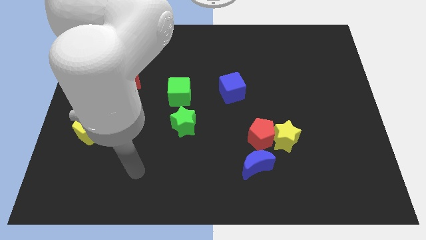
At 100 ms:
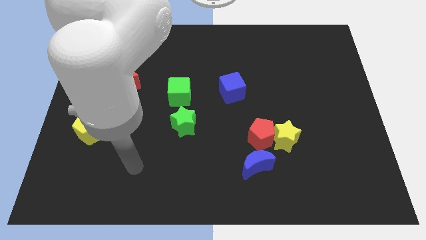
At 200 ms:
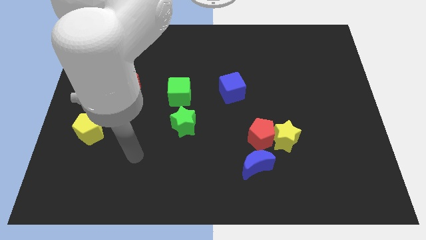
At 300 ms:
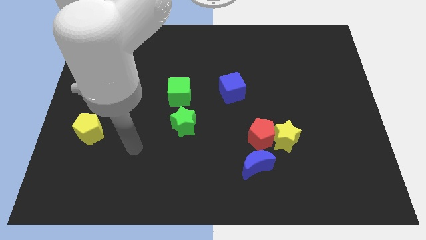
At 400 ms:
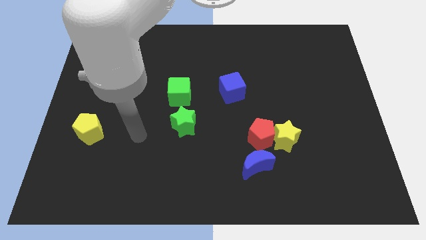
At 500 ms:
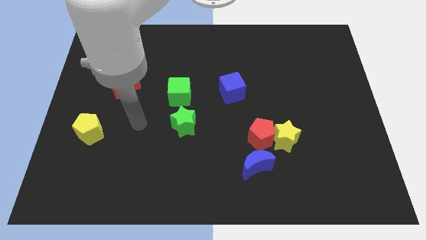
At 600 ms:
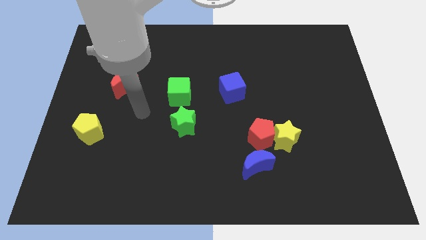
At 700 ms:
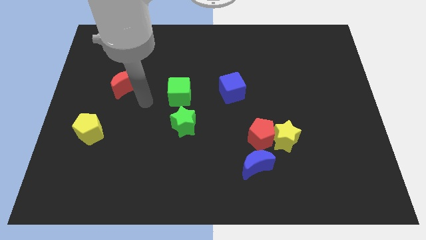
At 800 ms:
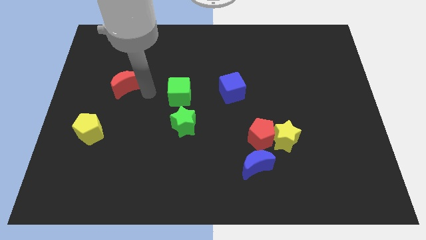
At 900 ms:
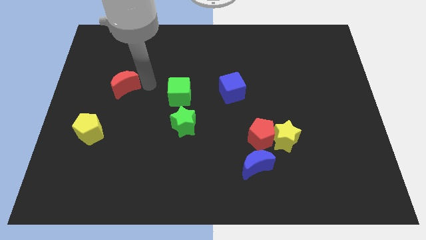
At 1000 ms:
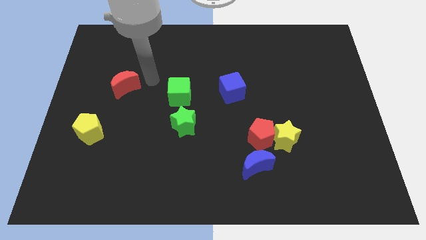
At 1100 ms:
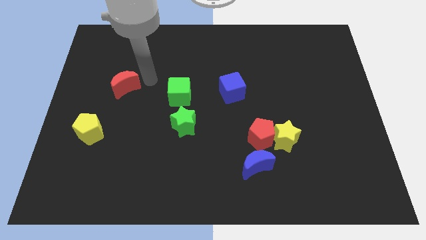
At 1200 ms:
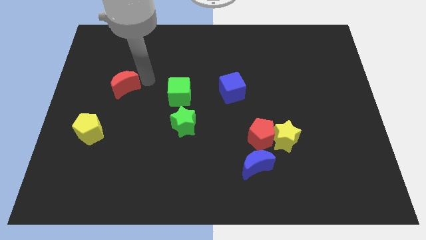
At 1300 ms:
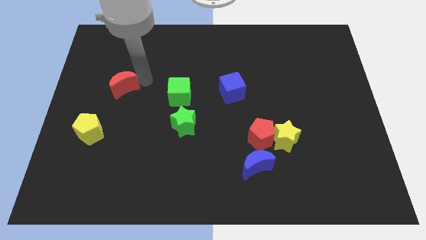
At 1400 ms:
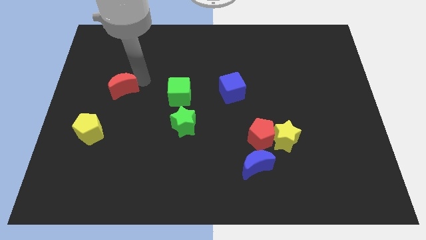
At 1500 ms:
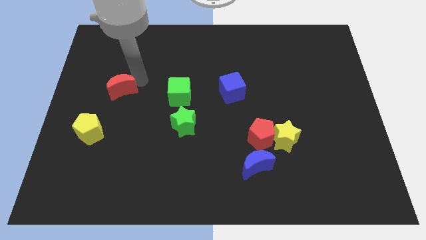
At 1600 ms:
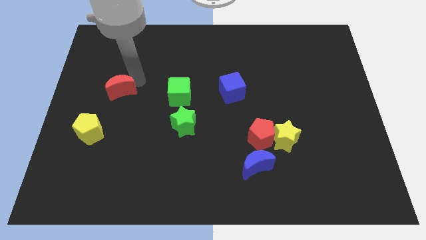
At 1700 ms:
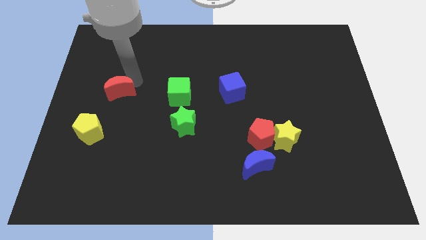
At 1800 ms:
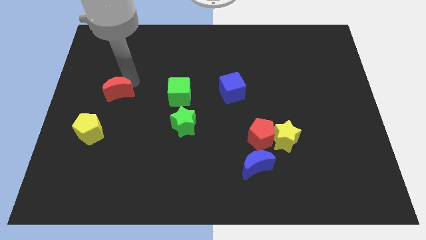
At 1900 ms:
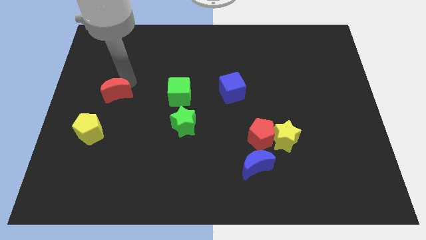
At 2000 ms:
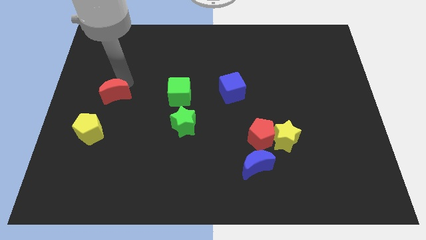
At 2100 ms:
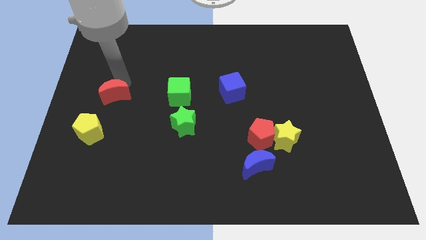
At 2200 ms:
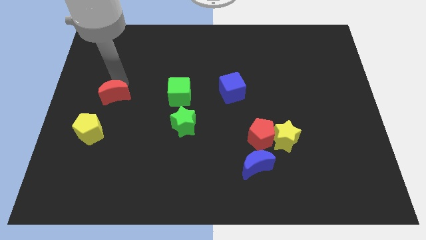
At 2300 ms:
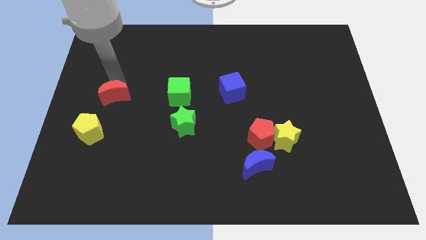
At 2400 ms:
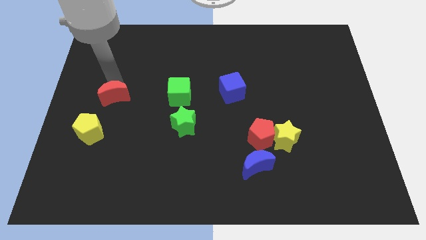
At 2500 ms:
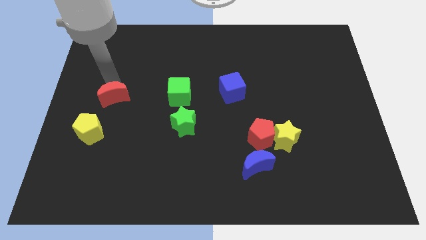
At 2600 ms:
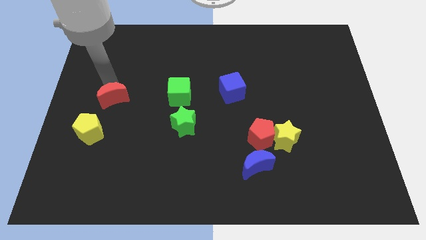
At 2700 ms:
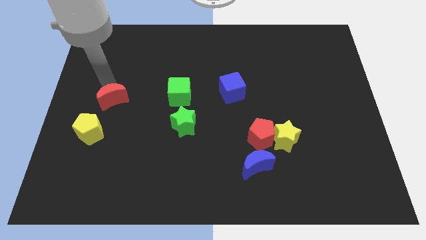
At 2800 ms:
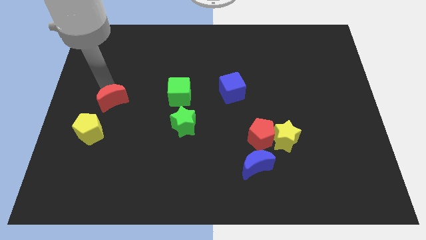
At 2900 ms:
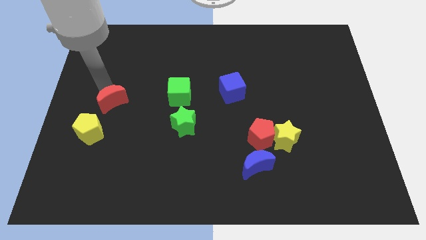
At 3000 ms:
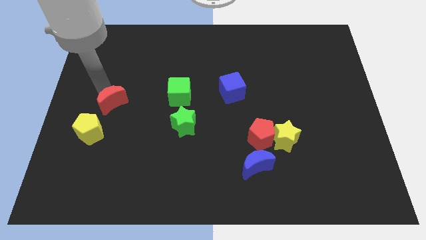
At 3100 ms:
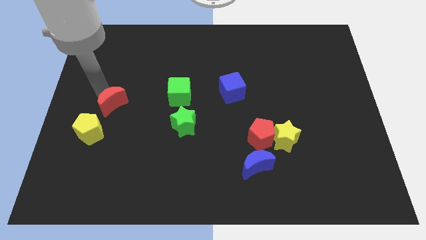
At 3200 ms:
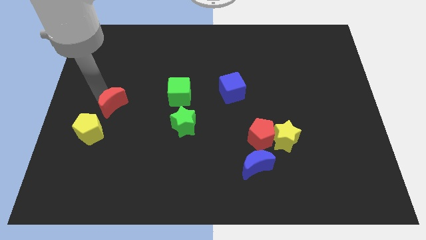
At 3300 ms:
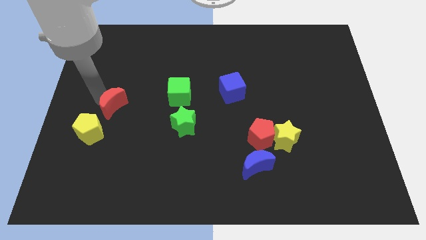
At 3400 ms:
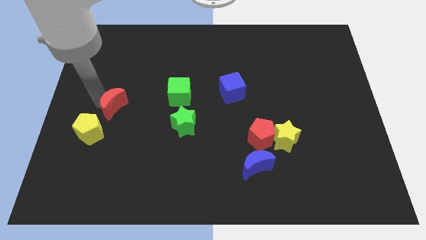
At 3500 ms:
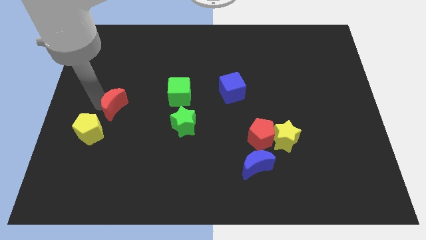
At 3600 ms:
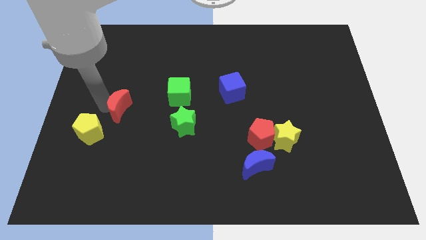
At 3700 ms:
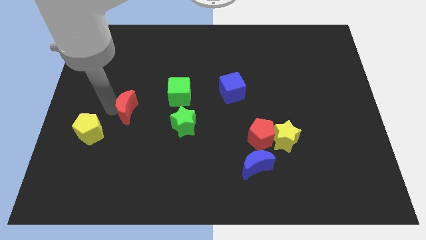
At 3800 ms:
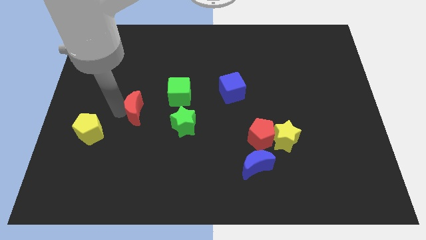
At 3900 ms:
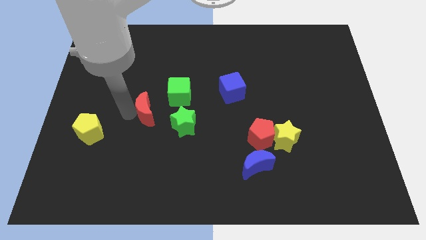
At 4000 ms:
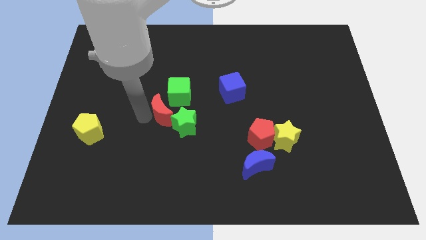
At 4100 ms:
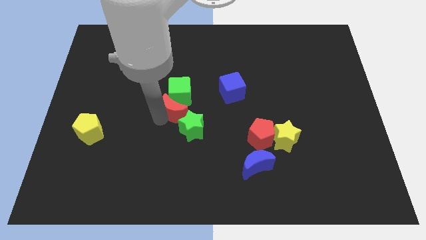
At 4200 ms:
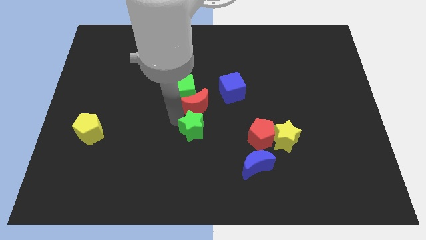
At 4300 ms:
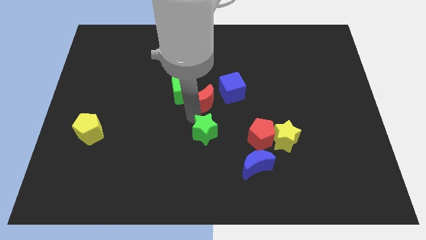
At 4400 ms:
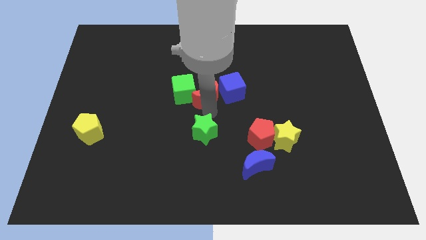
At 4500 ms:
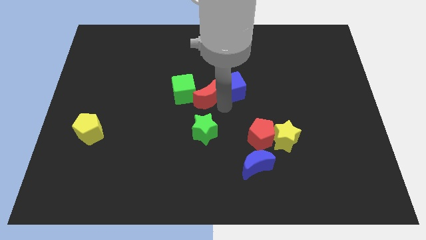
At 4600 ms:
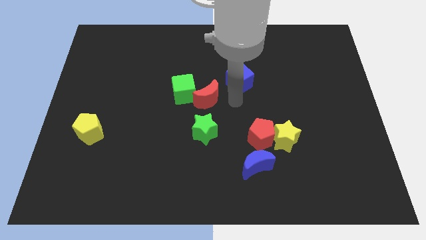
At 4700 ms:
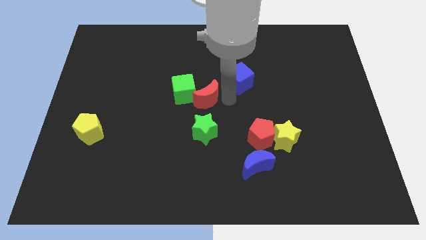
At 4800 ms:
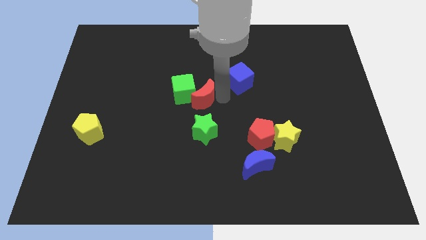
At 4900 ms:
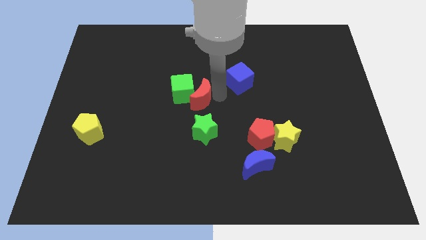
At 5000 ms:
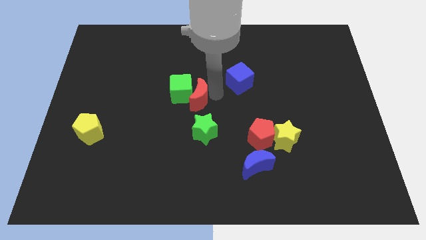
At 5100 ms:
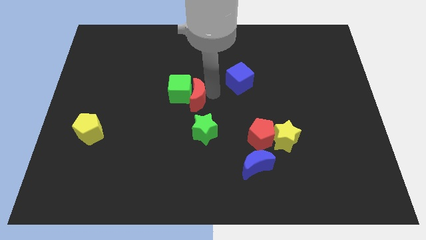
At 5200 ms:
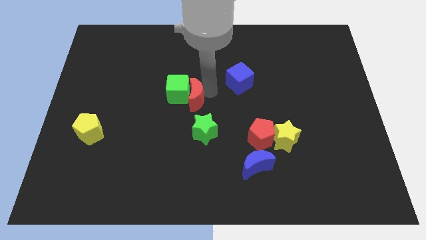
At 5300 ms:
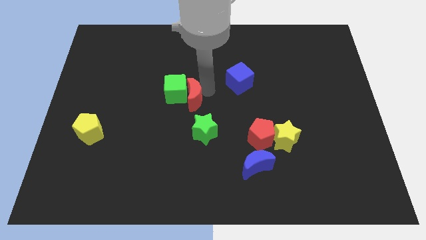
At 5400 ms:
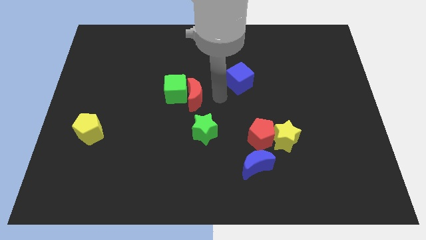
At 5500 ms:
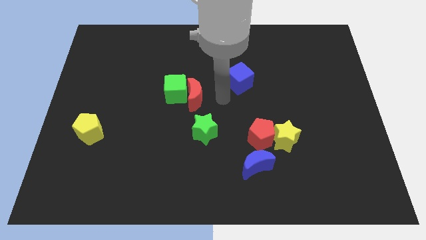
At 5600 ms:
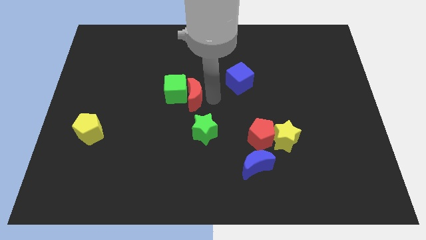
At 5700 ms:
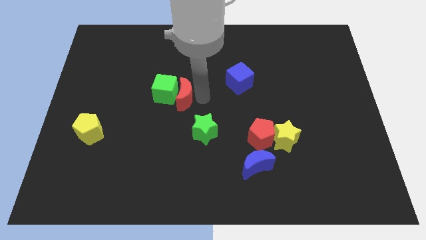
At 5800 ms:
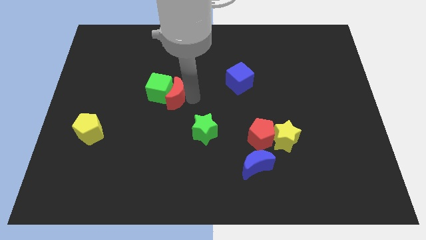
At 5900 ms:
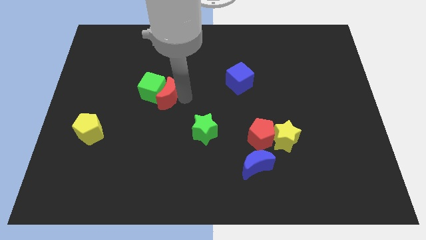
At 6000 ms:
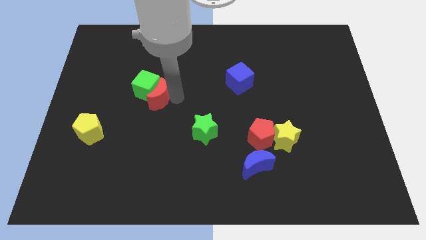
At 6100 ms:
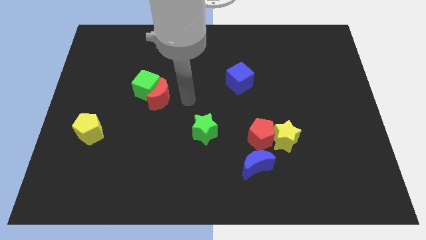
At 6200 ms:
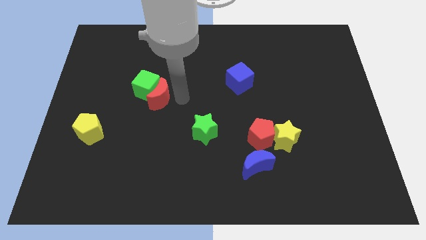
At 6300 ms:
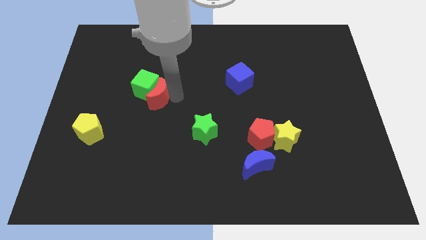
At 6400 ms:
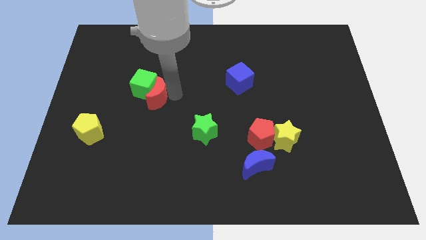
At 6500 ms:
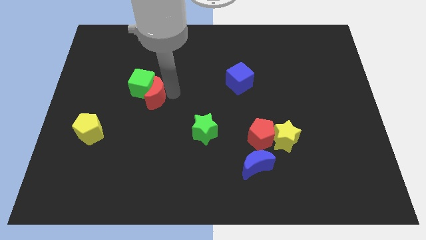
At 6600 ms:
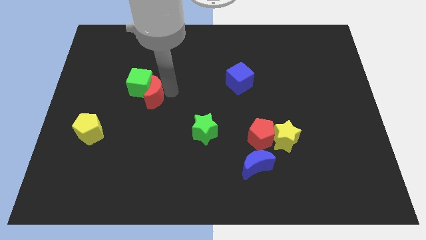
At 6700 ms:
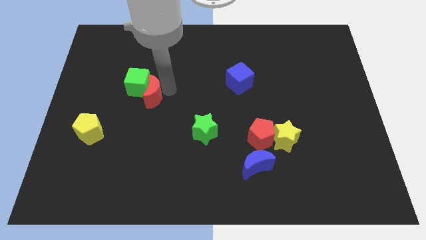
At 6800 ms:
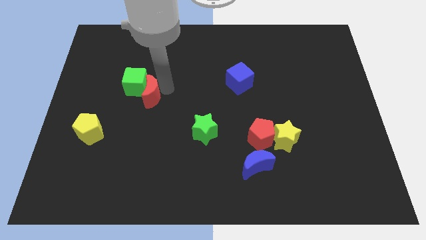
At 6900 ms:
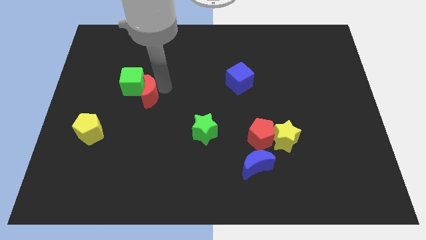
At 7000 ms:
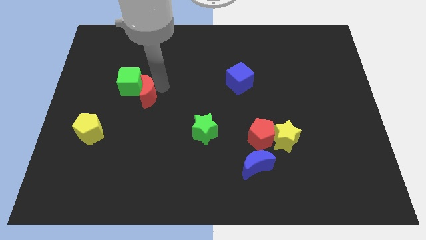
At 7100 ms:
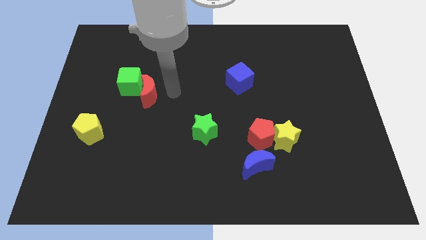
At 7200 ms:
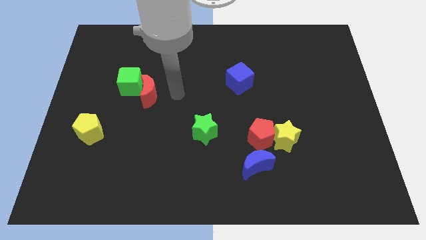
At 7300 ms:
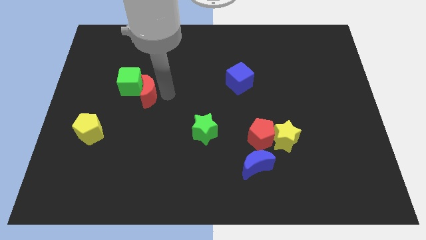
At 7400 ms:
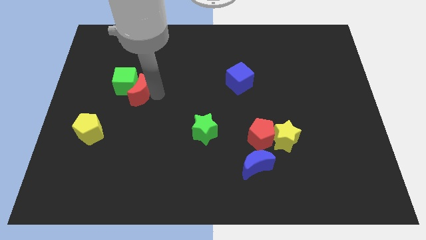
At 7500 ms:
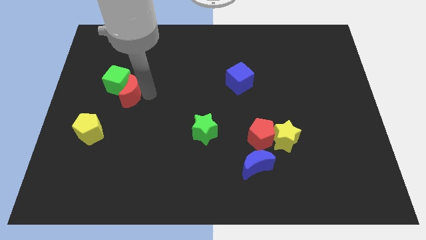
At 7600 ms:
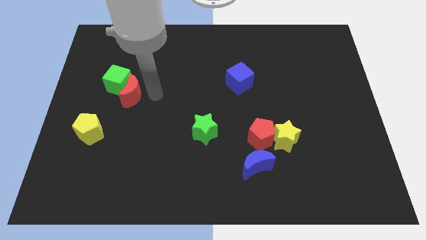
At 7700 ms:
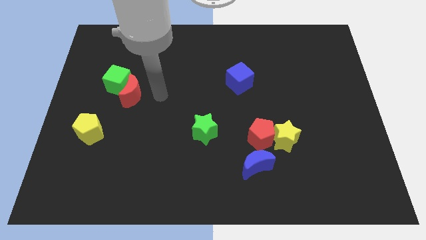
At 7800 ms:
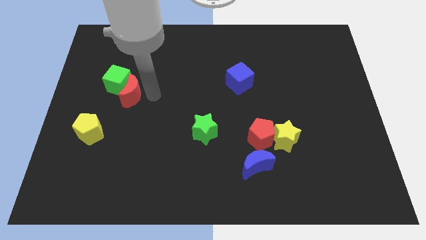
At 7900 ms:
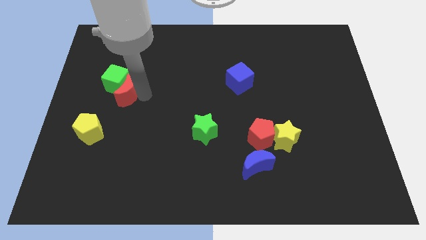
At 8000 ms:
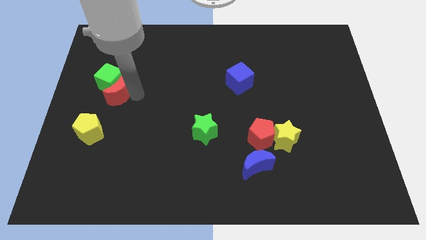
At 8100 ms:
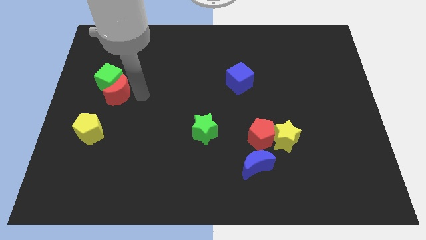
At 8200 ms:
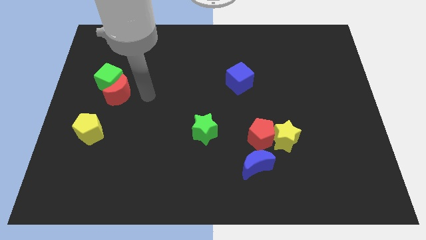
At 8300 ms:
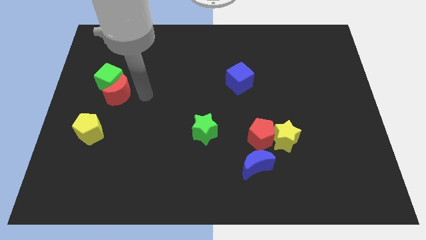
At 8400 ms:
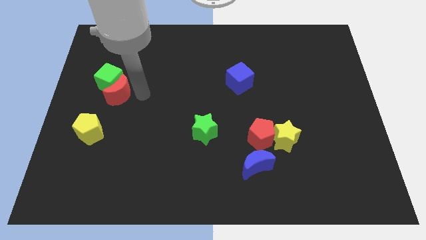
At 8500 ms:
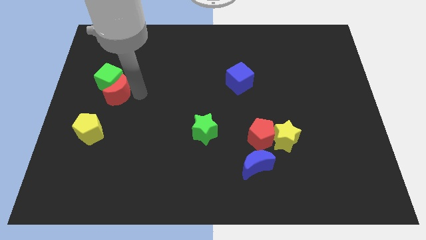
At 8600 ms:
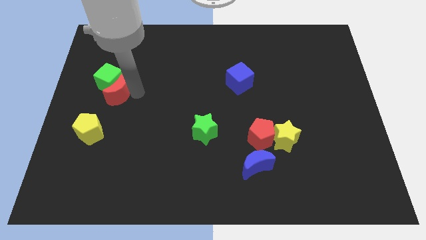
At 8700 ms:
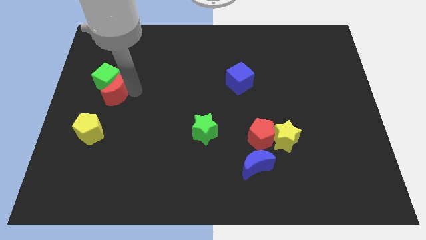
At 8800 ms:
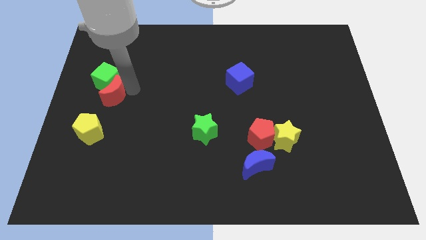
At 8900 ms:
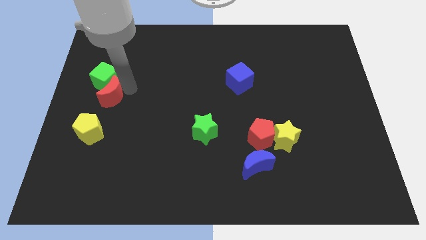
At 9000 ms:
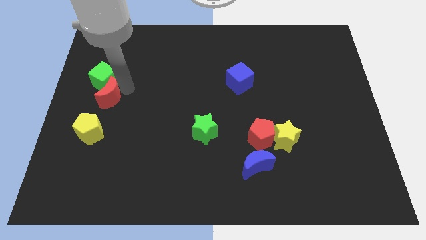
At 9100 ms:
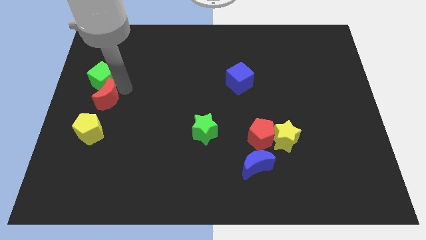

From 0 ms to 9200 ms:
slide the red moon to the left side
